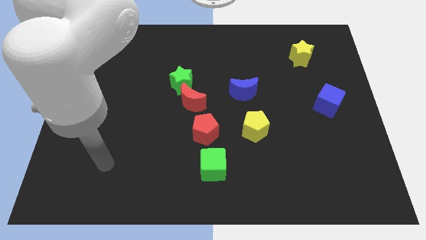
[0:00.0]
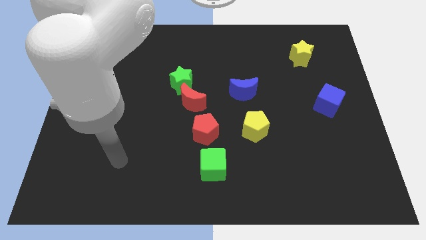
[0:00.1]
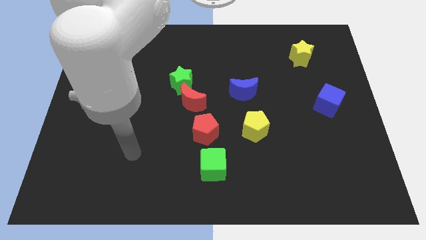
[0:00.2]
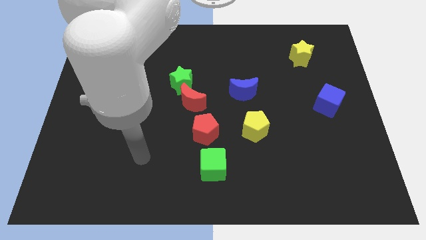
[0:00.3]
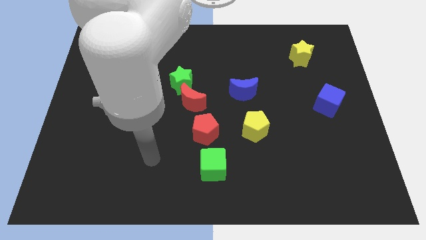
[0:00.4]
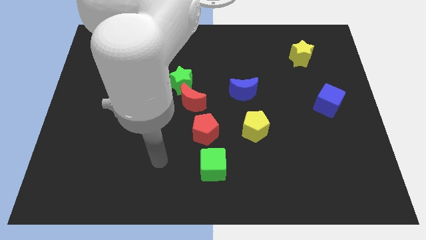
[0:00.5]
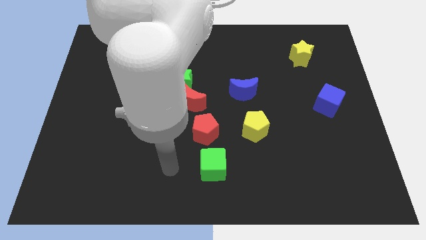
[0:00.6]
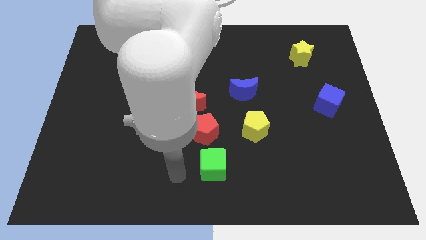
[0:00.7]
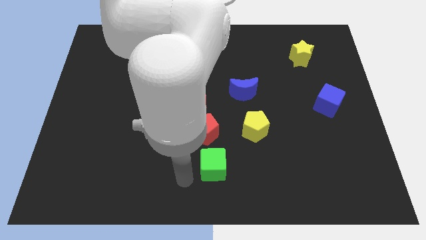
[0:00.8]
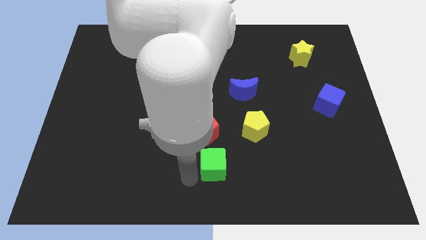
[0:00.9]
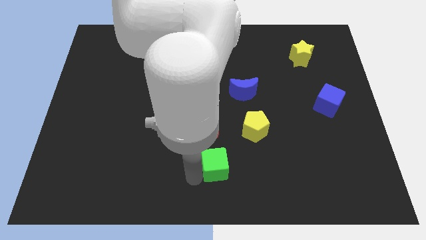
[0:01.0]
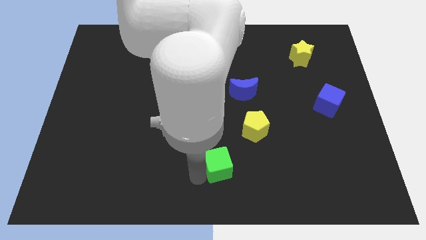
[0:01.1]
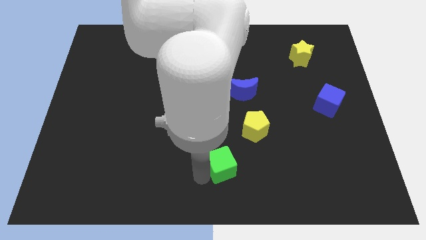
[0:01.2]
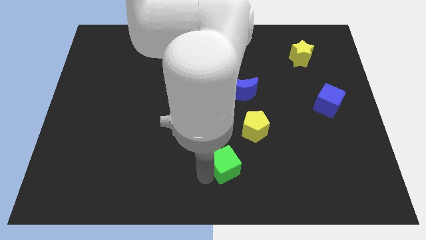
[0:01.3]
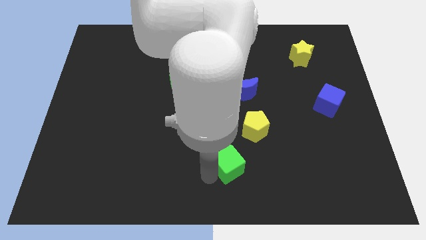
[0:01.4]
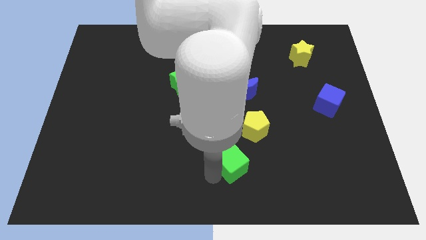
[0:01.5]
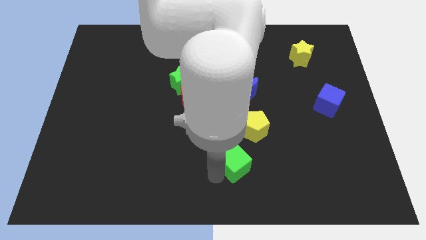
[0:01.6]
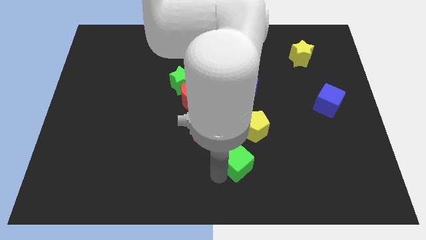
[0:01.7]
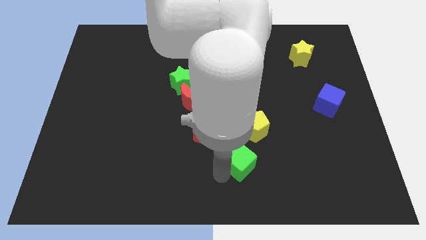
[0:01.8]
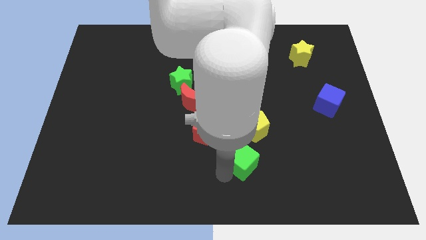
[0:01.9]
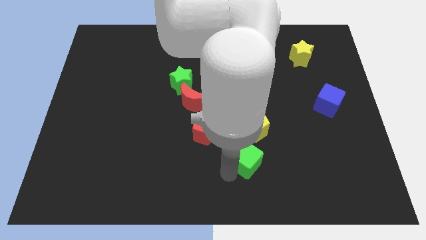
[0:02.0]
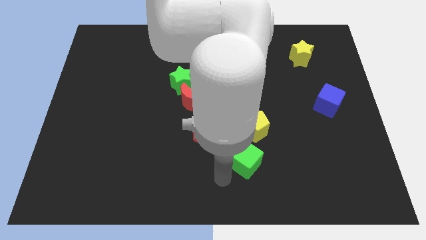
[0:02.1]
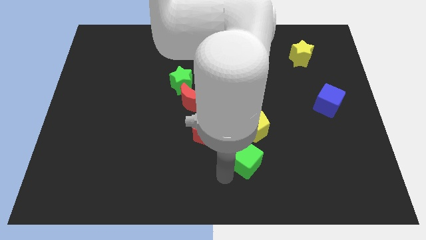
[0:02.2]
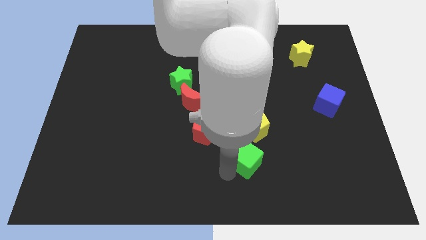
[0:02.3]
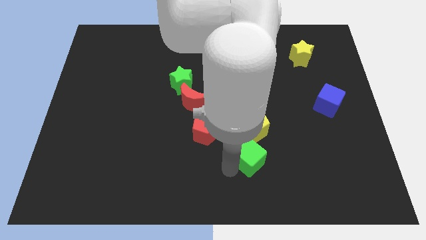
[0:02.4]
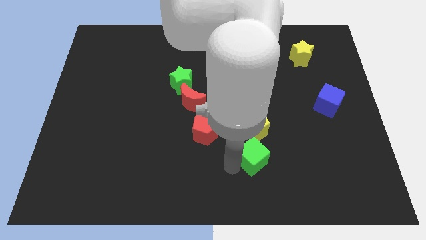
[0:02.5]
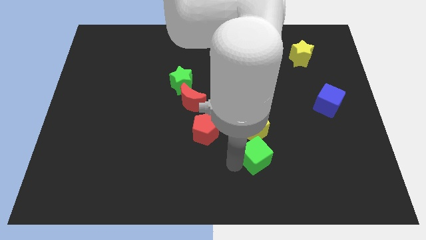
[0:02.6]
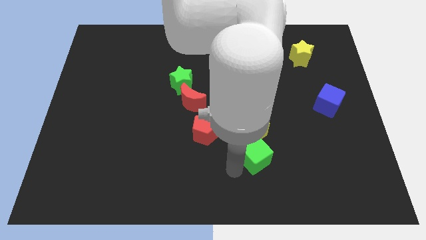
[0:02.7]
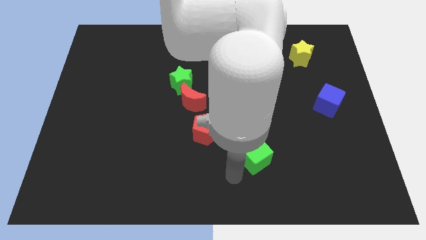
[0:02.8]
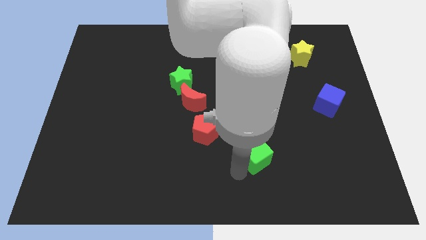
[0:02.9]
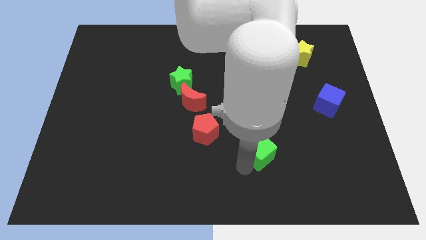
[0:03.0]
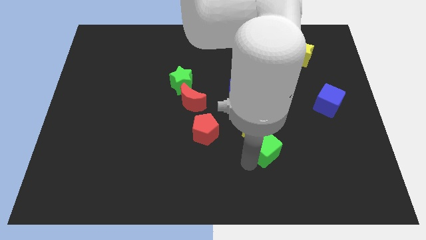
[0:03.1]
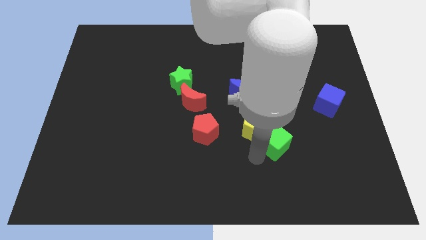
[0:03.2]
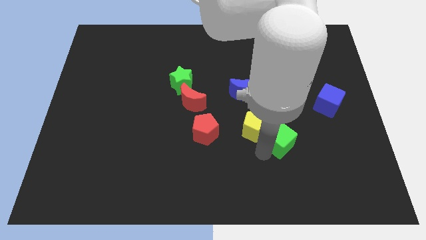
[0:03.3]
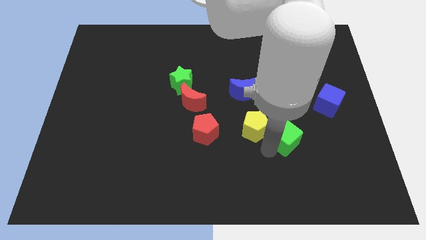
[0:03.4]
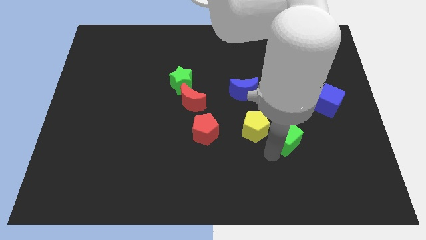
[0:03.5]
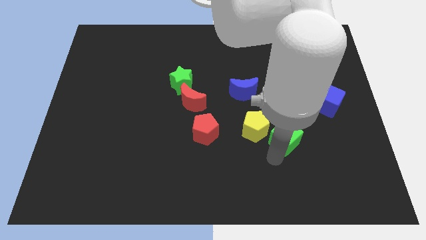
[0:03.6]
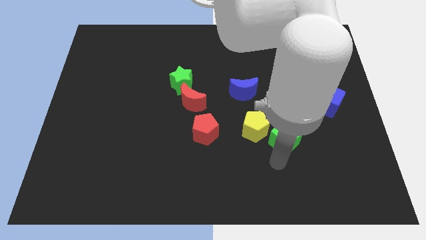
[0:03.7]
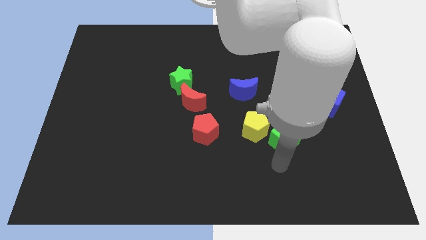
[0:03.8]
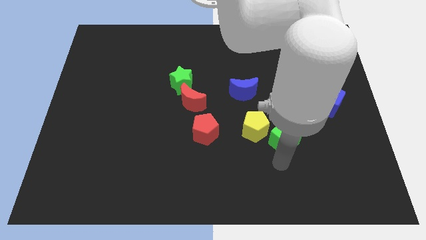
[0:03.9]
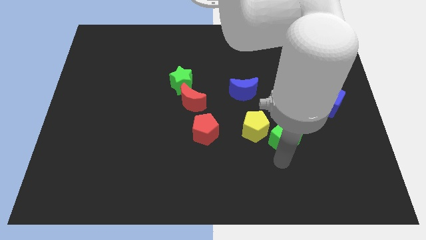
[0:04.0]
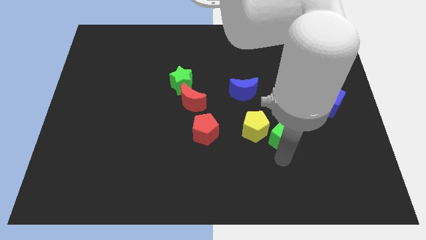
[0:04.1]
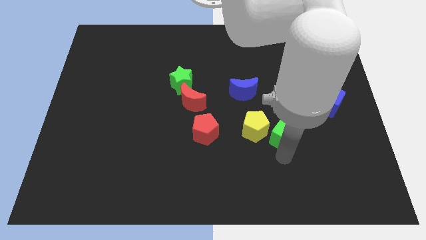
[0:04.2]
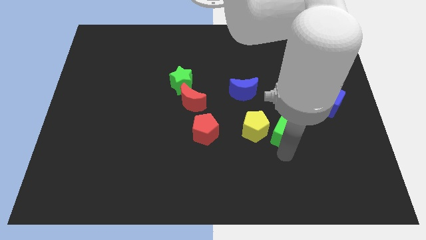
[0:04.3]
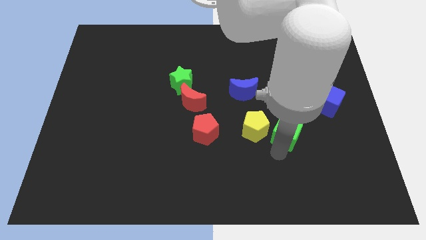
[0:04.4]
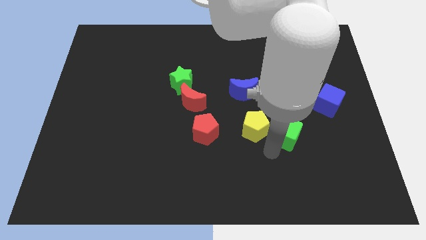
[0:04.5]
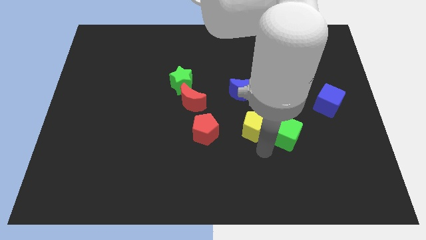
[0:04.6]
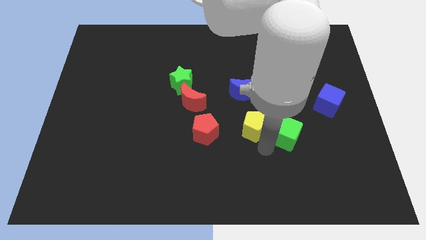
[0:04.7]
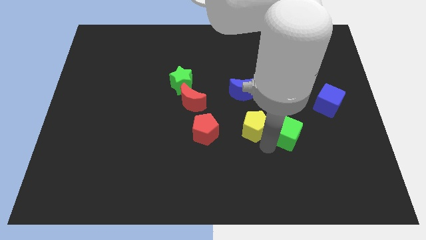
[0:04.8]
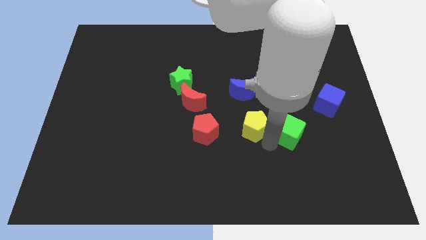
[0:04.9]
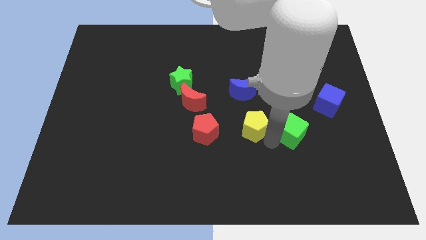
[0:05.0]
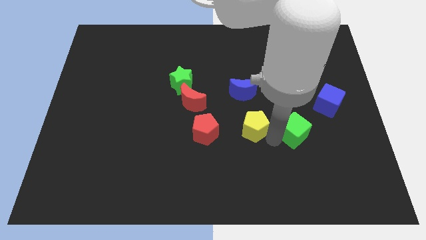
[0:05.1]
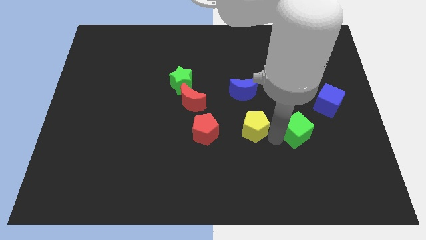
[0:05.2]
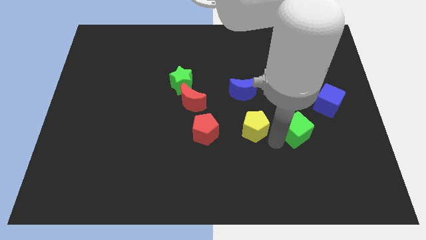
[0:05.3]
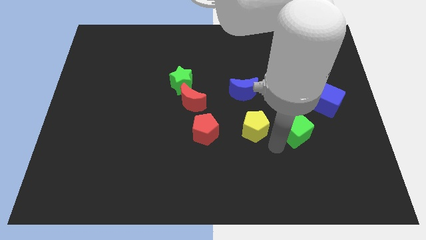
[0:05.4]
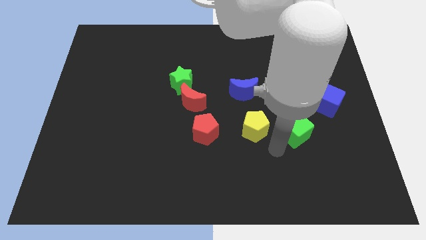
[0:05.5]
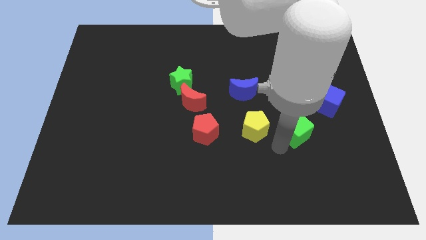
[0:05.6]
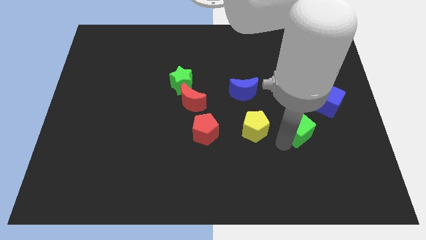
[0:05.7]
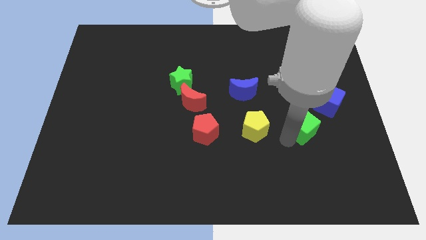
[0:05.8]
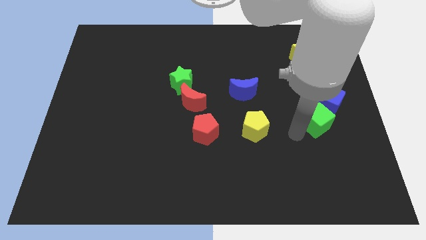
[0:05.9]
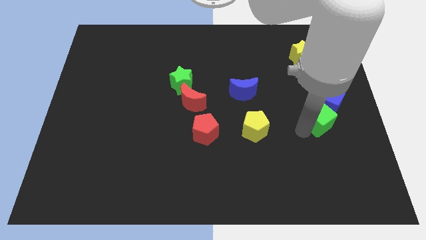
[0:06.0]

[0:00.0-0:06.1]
slide the green cube to the blue cube

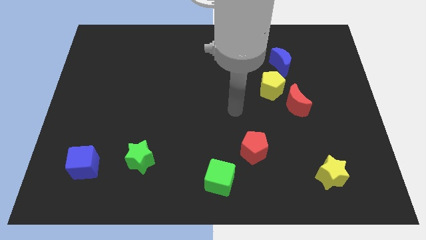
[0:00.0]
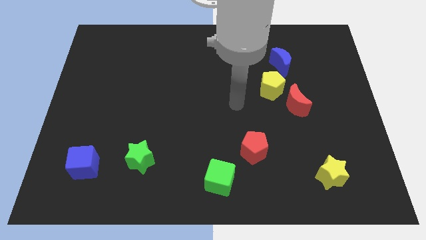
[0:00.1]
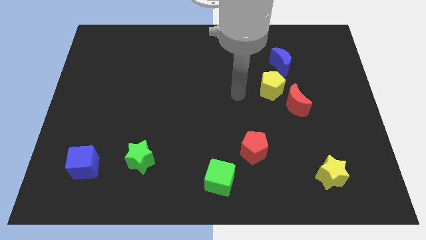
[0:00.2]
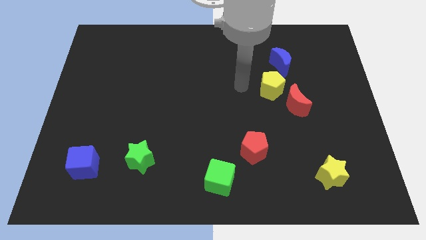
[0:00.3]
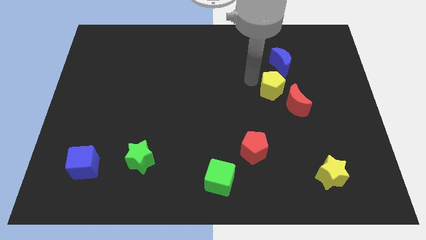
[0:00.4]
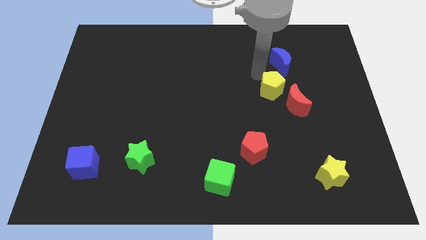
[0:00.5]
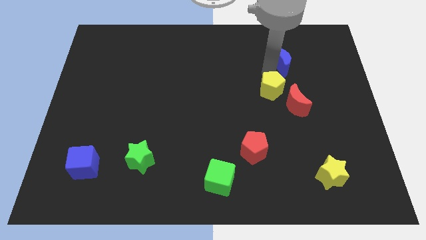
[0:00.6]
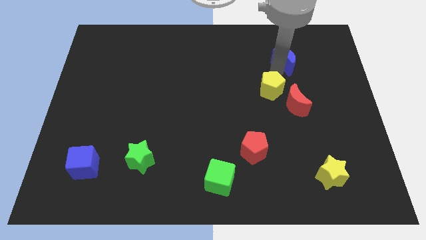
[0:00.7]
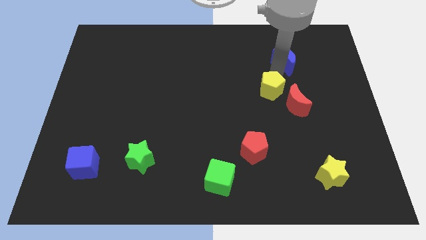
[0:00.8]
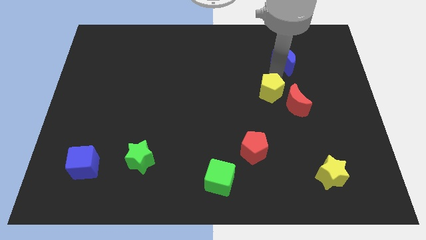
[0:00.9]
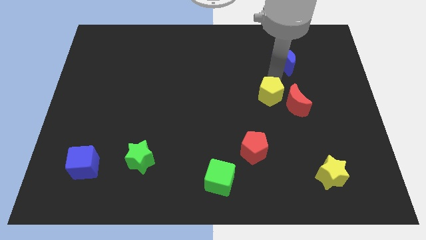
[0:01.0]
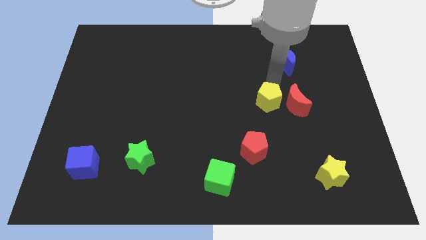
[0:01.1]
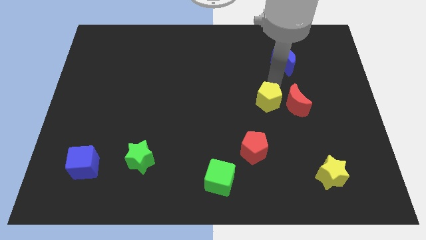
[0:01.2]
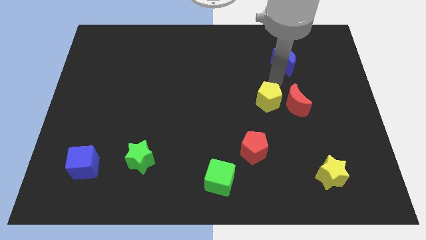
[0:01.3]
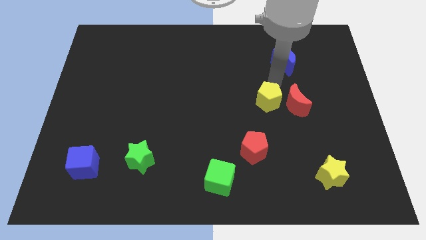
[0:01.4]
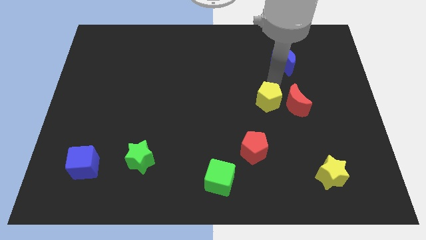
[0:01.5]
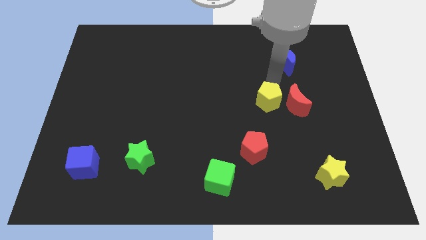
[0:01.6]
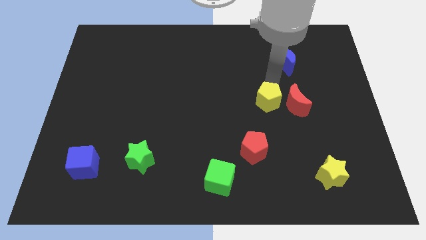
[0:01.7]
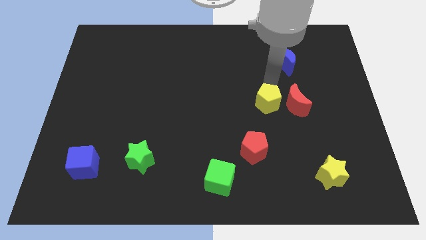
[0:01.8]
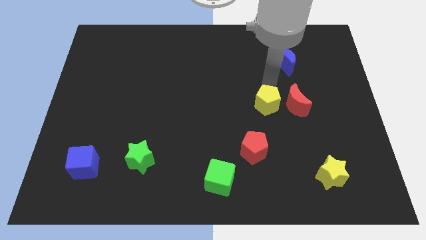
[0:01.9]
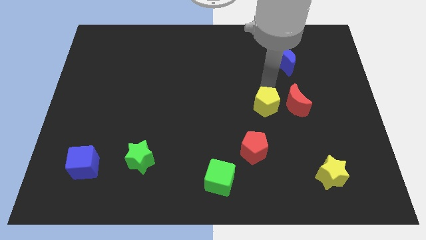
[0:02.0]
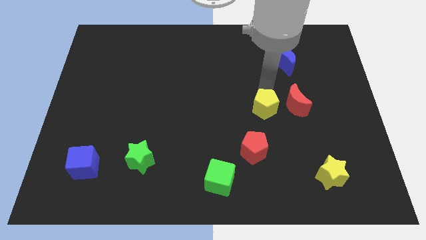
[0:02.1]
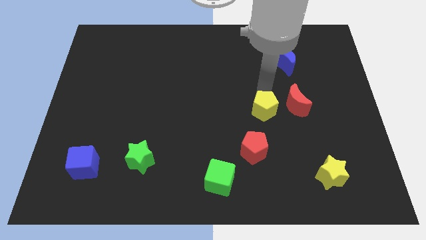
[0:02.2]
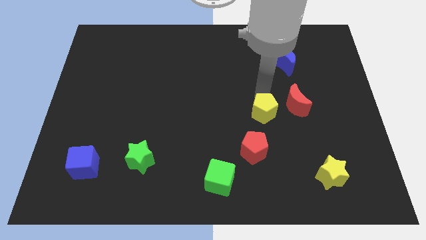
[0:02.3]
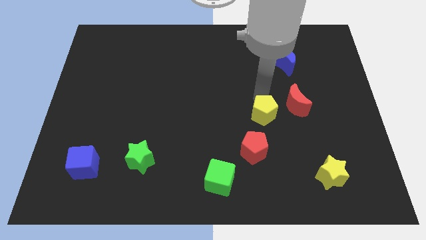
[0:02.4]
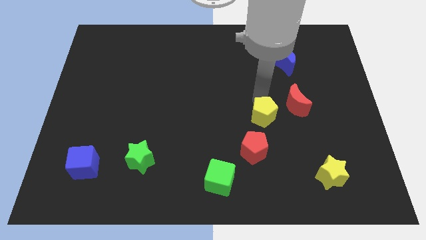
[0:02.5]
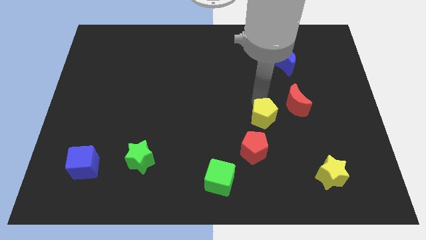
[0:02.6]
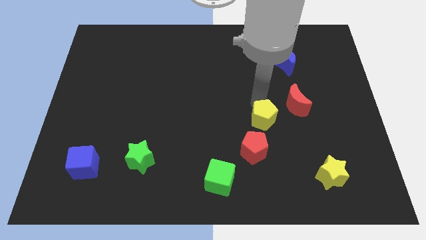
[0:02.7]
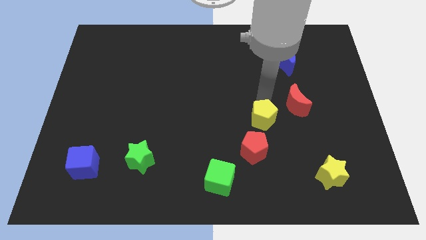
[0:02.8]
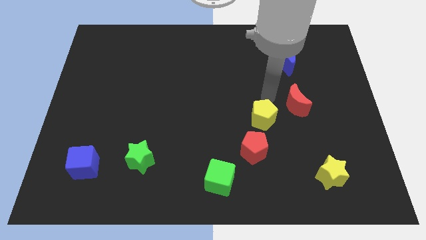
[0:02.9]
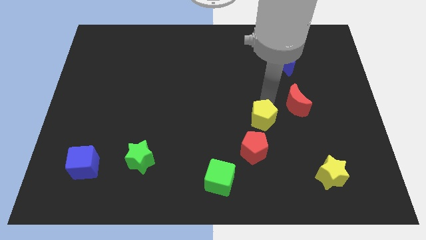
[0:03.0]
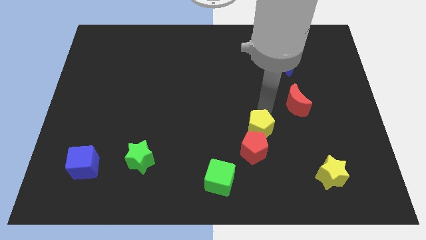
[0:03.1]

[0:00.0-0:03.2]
put the yellow pentagon towards the red pentagon
